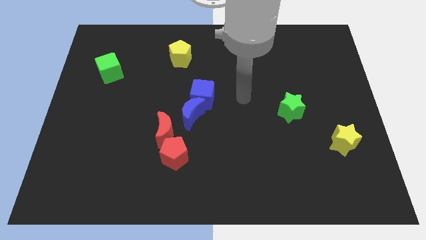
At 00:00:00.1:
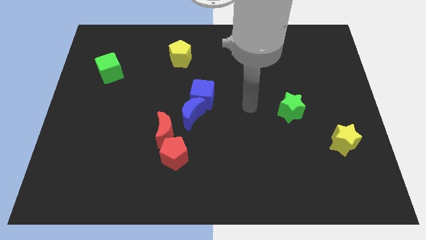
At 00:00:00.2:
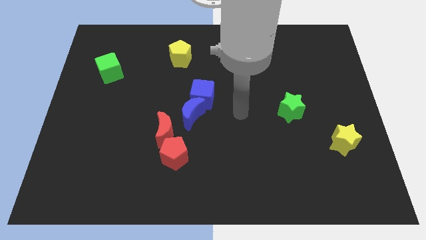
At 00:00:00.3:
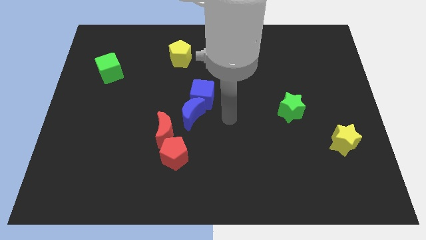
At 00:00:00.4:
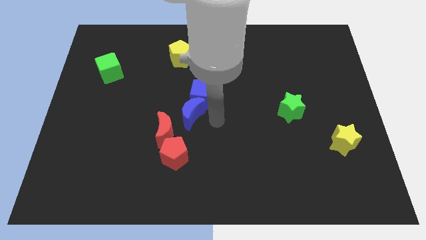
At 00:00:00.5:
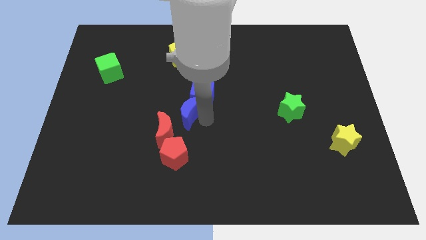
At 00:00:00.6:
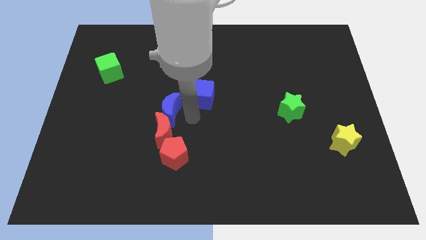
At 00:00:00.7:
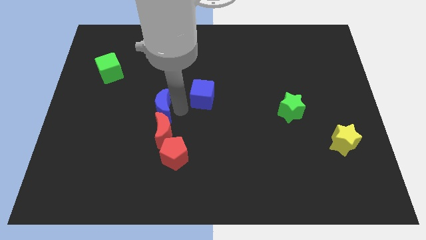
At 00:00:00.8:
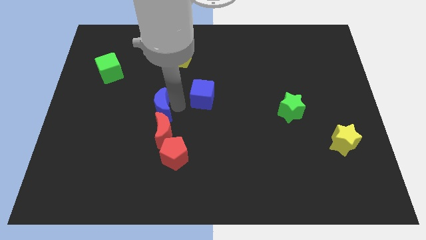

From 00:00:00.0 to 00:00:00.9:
move the blue cube away from the blue moon

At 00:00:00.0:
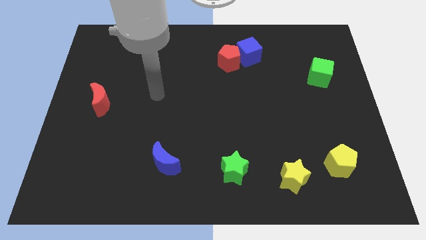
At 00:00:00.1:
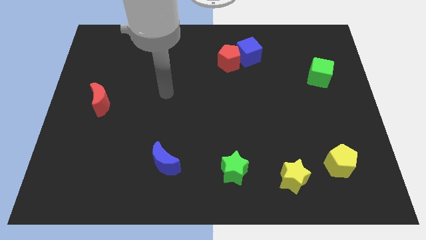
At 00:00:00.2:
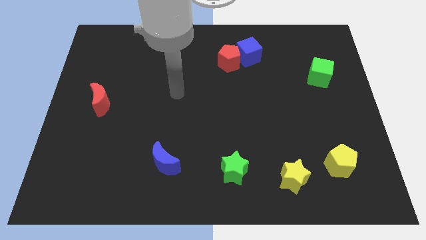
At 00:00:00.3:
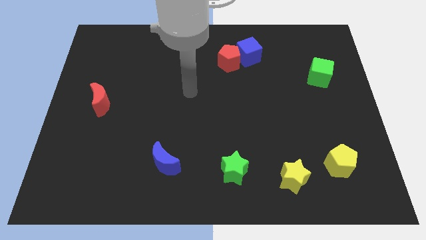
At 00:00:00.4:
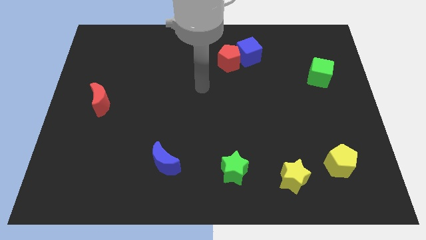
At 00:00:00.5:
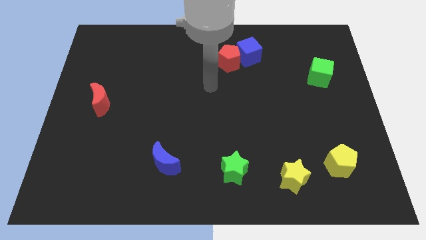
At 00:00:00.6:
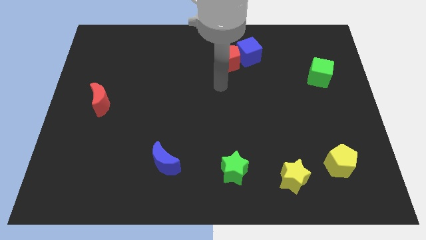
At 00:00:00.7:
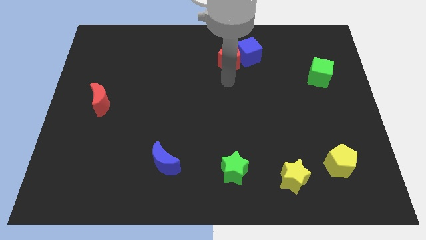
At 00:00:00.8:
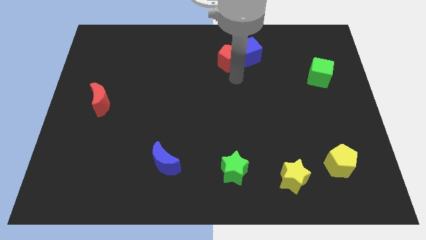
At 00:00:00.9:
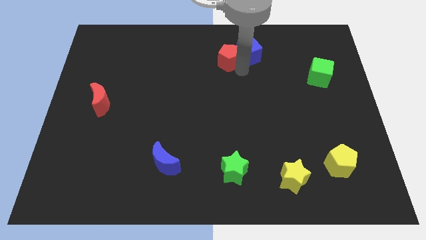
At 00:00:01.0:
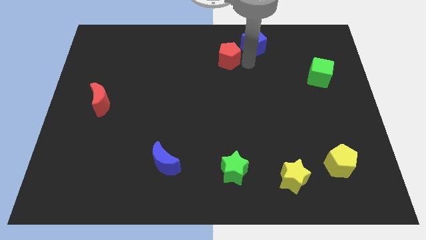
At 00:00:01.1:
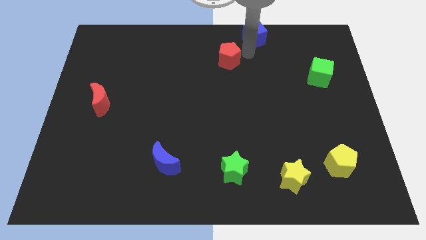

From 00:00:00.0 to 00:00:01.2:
move the red pentagon away from the blue cube

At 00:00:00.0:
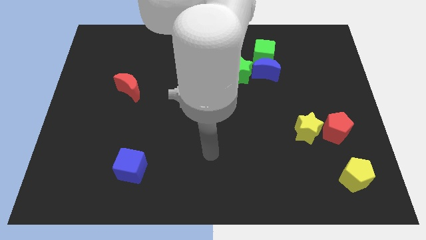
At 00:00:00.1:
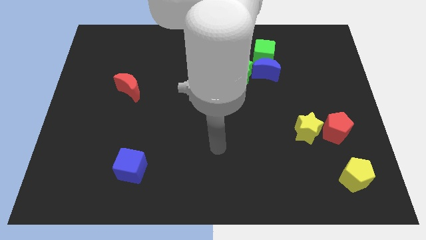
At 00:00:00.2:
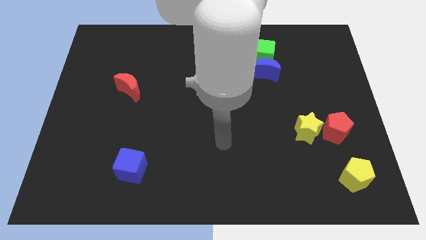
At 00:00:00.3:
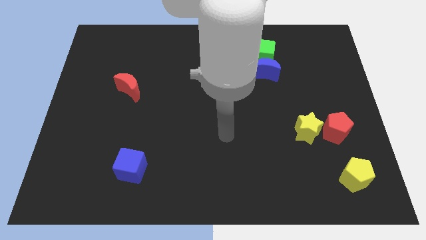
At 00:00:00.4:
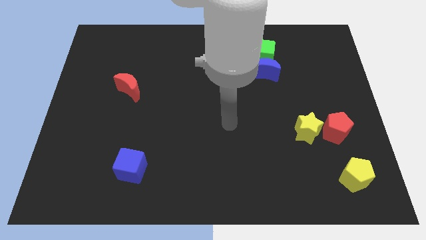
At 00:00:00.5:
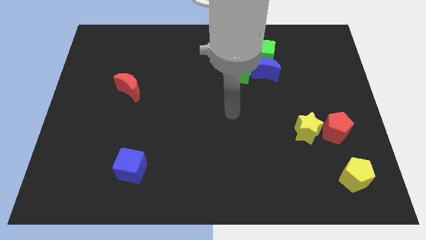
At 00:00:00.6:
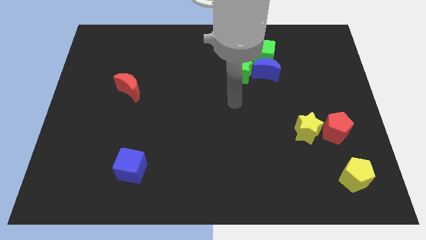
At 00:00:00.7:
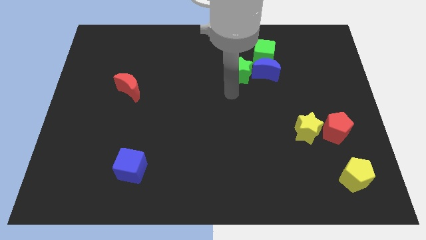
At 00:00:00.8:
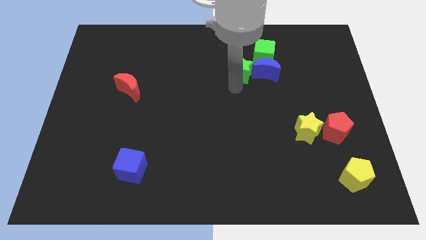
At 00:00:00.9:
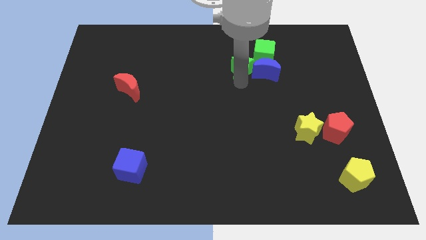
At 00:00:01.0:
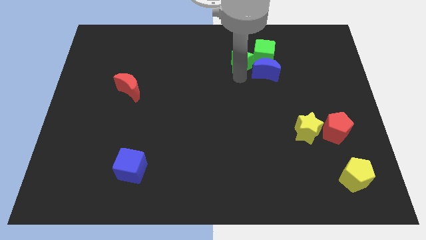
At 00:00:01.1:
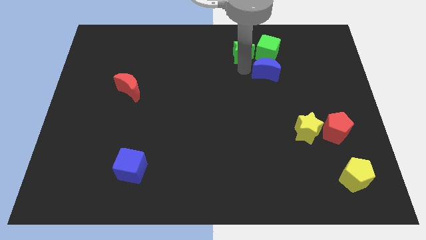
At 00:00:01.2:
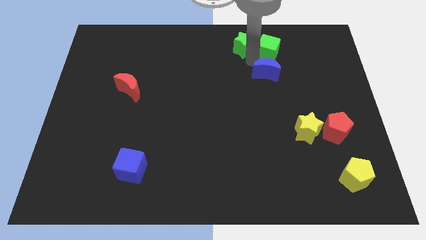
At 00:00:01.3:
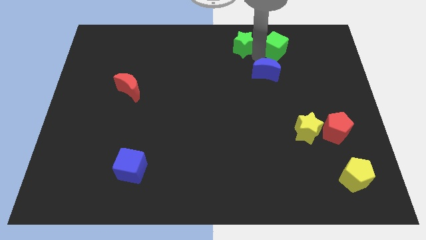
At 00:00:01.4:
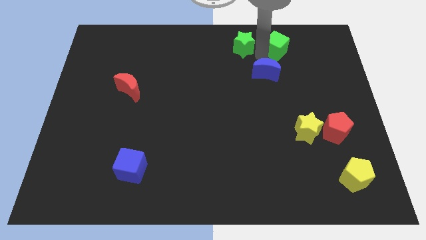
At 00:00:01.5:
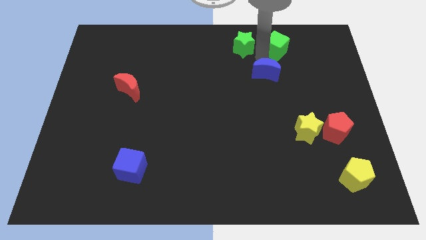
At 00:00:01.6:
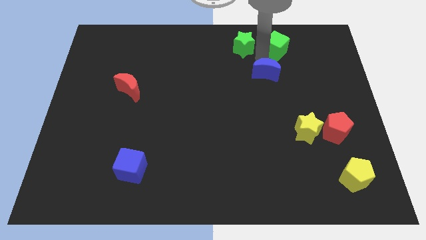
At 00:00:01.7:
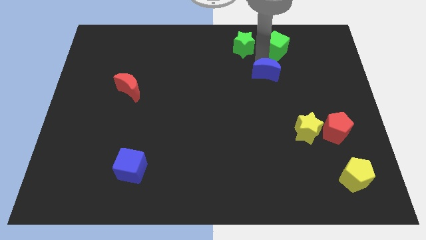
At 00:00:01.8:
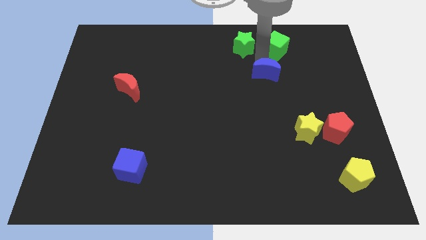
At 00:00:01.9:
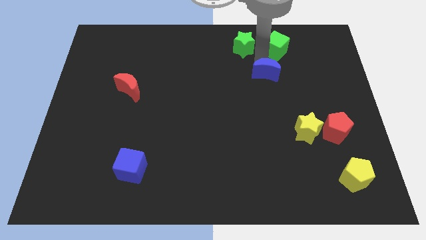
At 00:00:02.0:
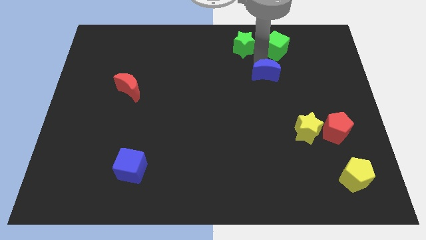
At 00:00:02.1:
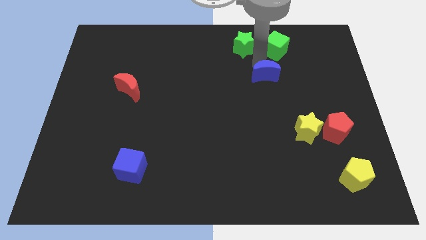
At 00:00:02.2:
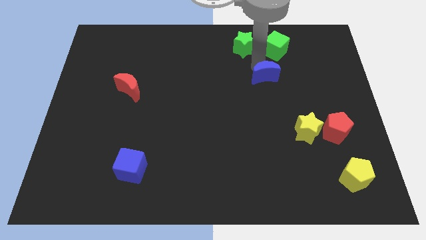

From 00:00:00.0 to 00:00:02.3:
pull the blue moon apart from the green cube and green star

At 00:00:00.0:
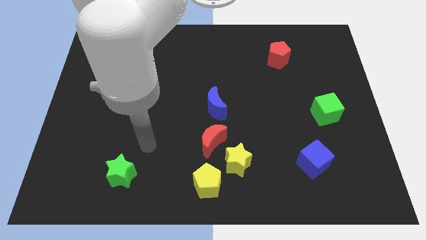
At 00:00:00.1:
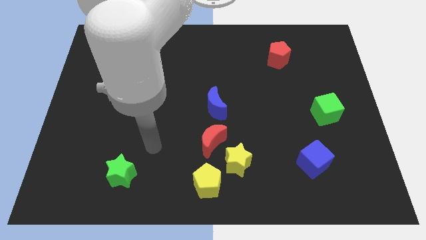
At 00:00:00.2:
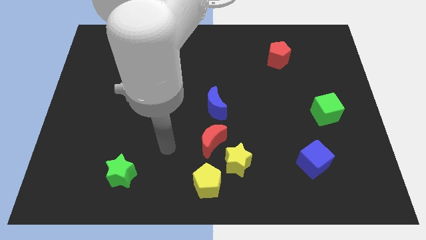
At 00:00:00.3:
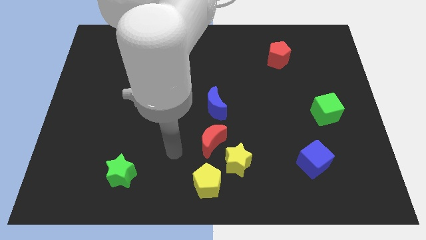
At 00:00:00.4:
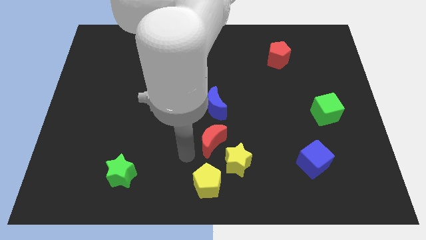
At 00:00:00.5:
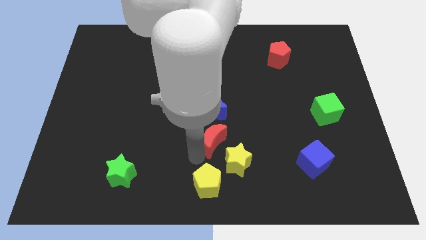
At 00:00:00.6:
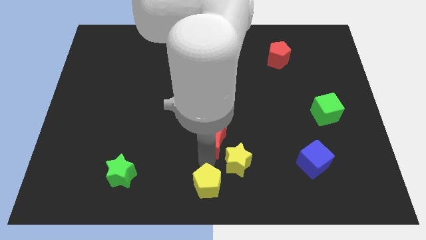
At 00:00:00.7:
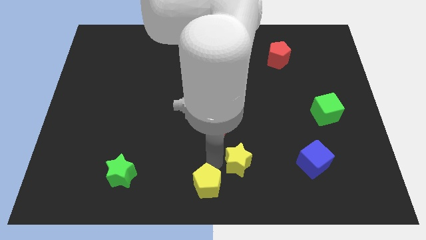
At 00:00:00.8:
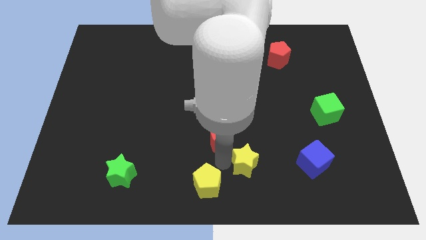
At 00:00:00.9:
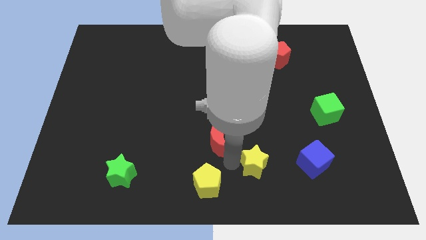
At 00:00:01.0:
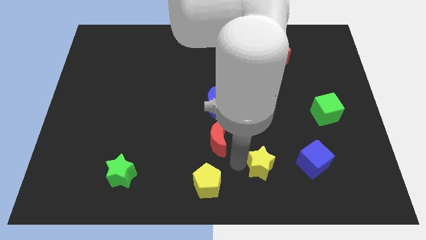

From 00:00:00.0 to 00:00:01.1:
move the yellow star away from the red moon and yellow pentagon

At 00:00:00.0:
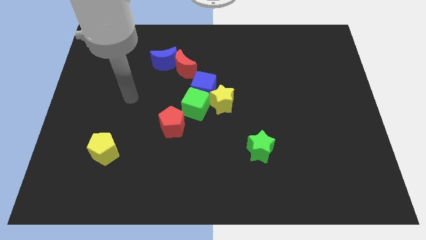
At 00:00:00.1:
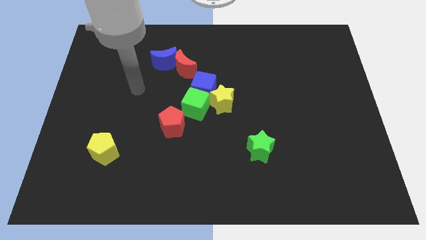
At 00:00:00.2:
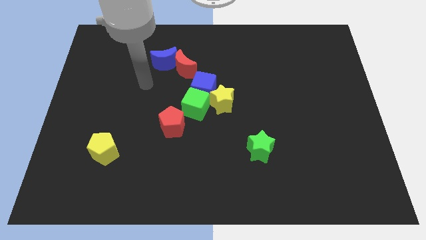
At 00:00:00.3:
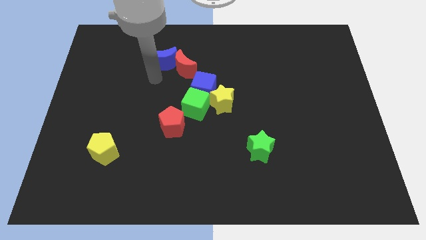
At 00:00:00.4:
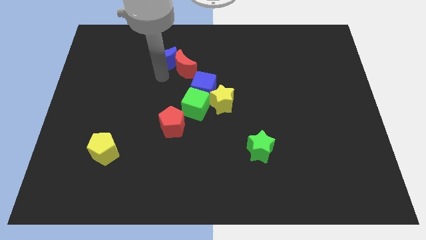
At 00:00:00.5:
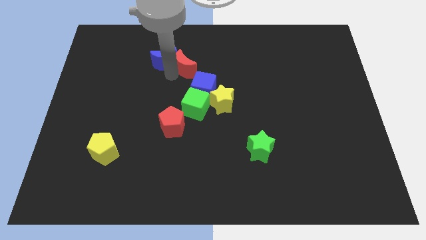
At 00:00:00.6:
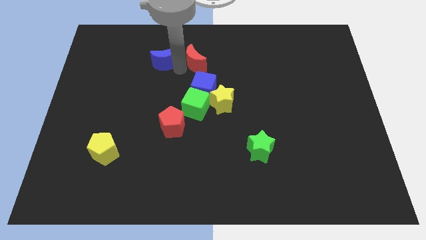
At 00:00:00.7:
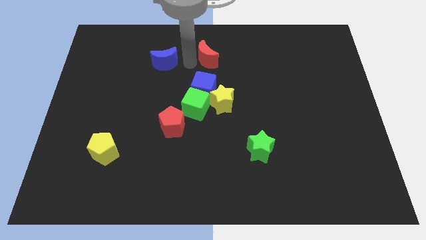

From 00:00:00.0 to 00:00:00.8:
separate the blue moon from the red moon

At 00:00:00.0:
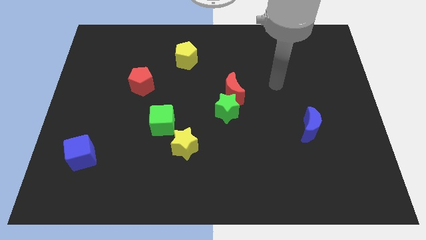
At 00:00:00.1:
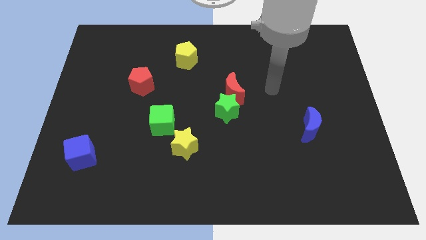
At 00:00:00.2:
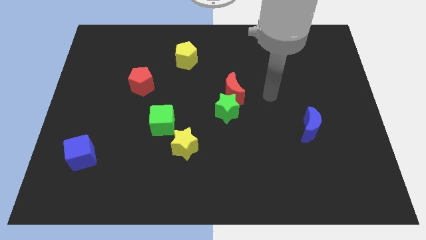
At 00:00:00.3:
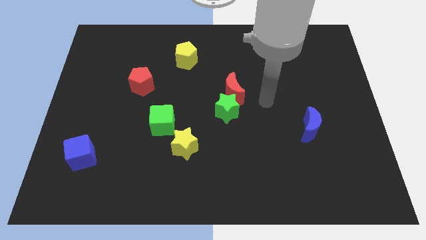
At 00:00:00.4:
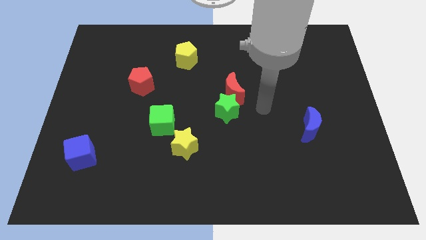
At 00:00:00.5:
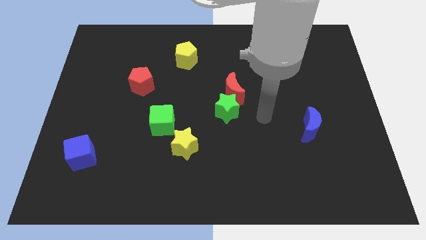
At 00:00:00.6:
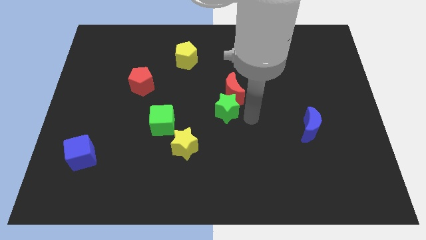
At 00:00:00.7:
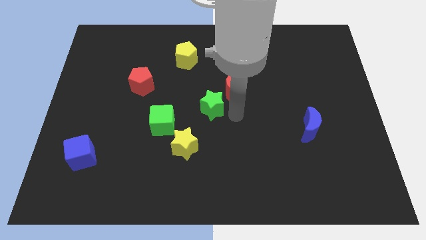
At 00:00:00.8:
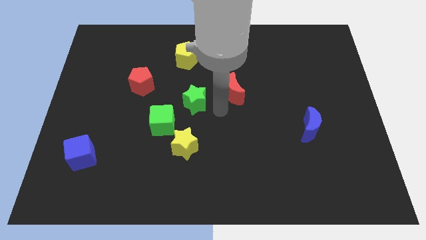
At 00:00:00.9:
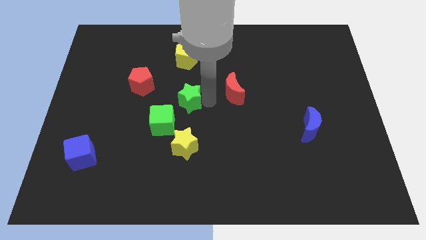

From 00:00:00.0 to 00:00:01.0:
move the red moon away from the green star

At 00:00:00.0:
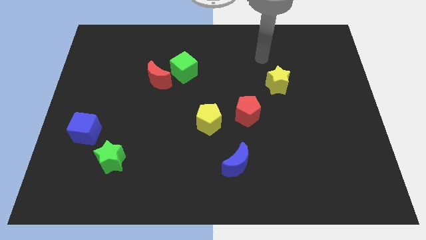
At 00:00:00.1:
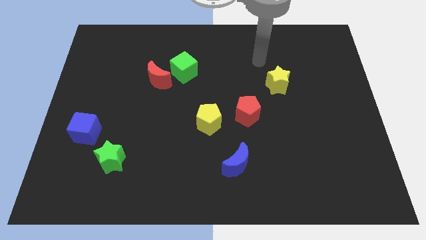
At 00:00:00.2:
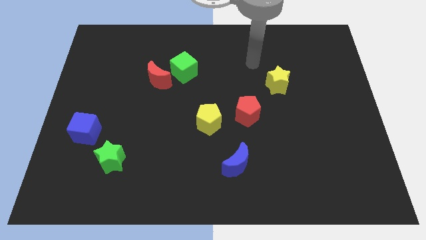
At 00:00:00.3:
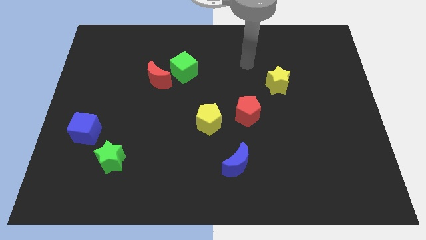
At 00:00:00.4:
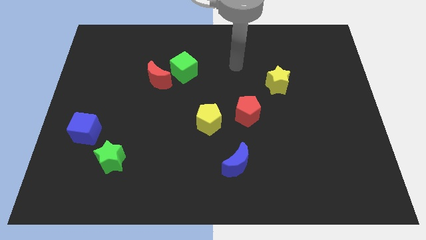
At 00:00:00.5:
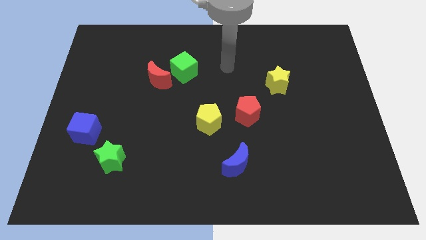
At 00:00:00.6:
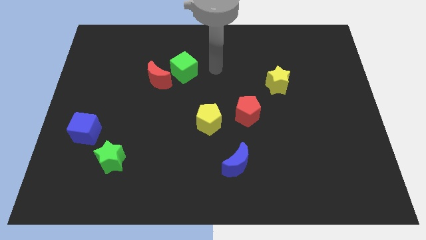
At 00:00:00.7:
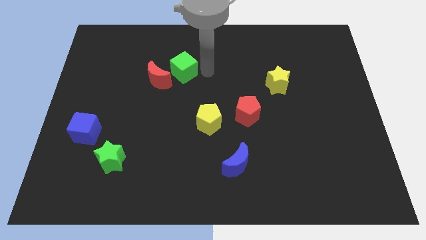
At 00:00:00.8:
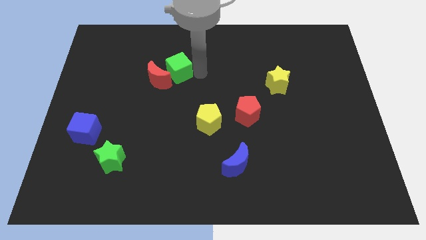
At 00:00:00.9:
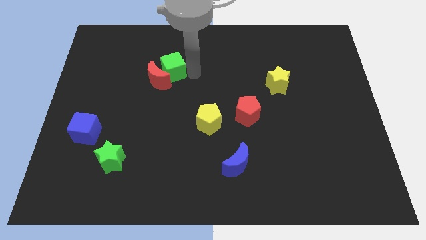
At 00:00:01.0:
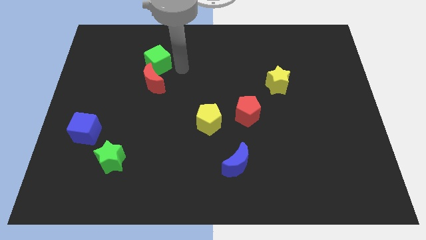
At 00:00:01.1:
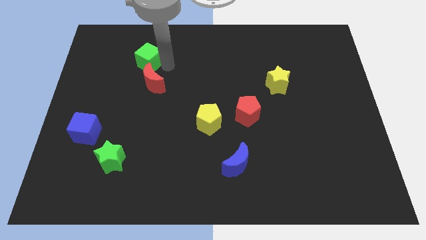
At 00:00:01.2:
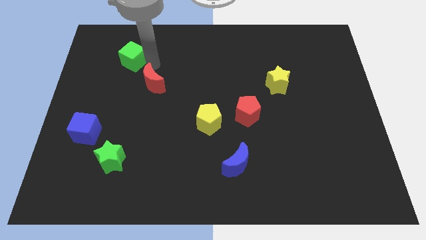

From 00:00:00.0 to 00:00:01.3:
pull the red moon apart from the green cube

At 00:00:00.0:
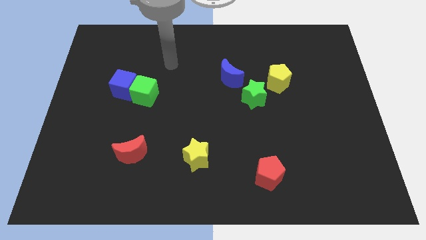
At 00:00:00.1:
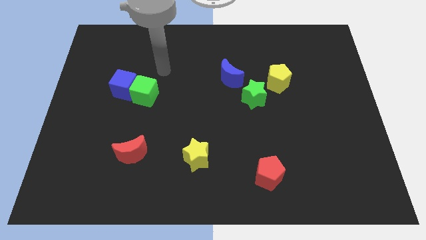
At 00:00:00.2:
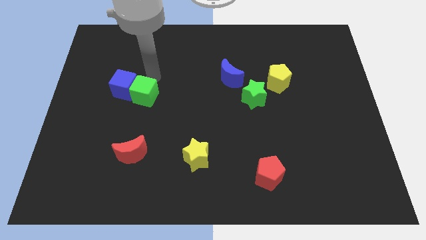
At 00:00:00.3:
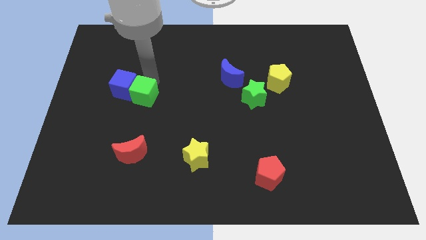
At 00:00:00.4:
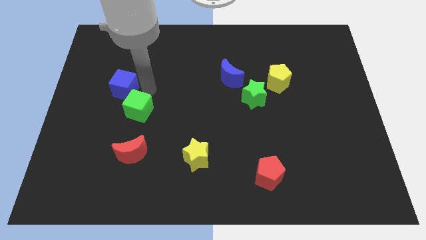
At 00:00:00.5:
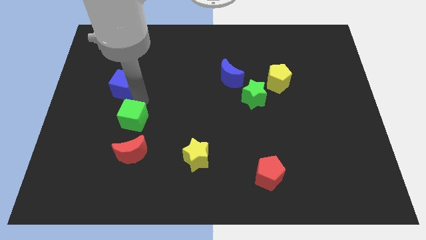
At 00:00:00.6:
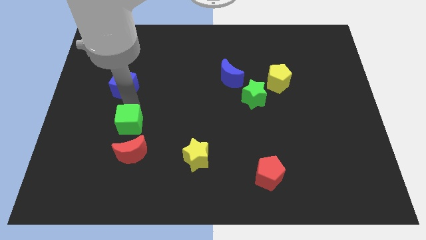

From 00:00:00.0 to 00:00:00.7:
separate the blue cube from the green cube
